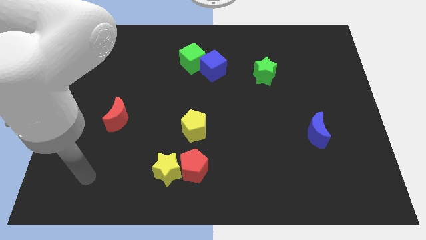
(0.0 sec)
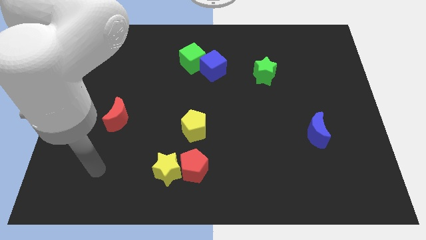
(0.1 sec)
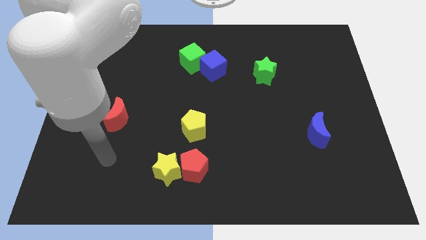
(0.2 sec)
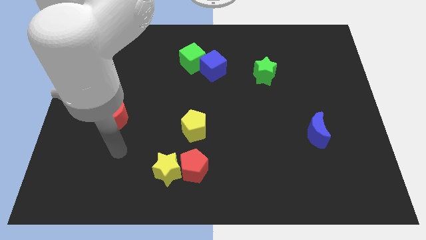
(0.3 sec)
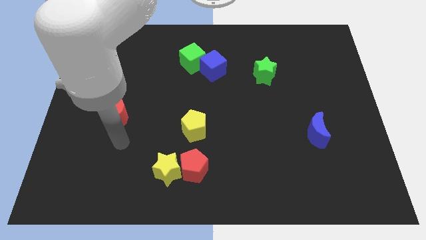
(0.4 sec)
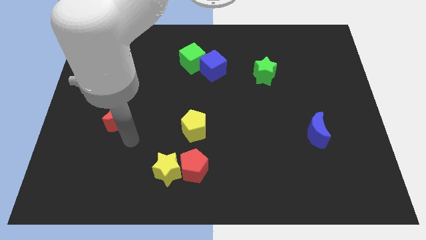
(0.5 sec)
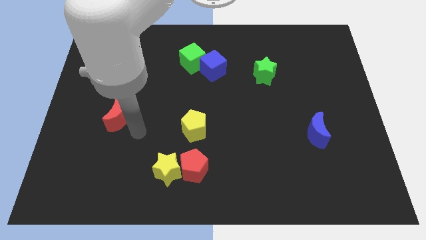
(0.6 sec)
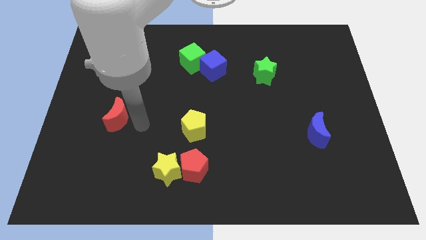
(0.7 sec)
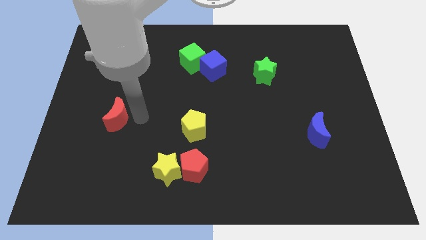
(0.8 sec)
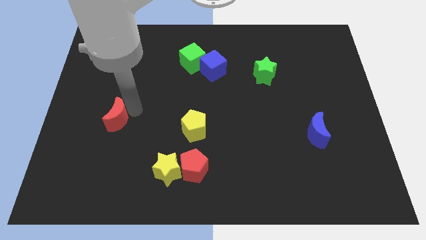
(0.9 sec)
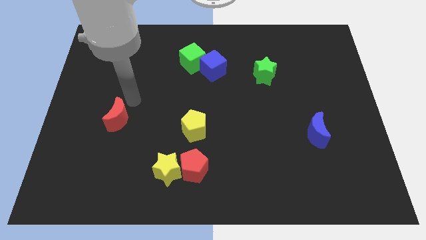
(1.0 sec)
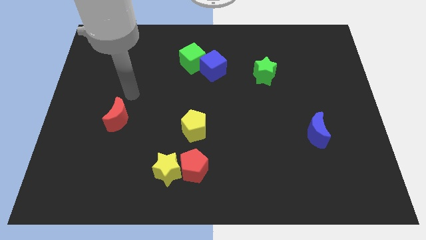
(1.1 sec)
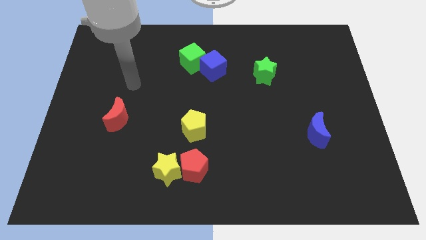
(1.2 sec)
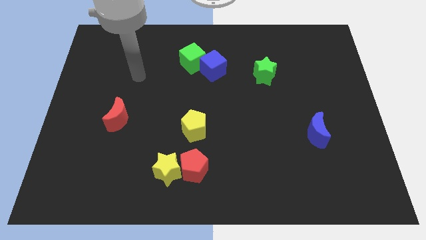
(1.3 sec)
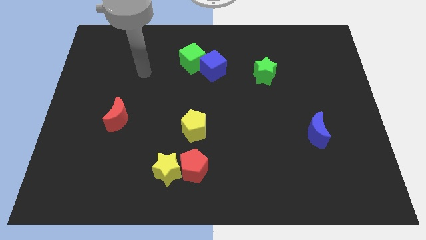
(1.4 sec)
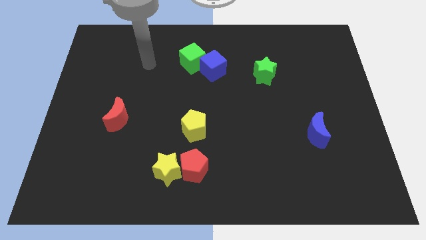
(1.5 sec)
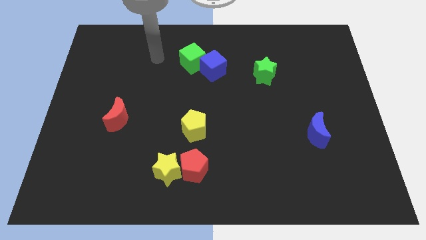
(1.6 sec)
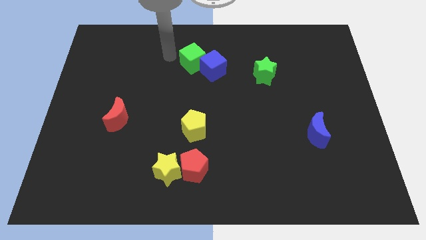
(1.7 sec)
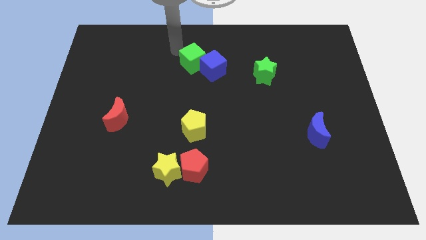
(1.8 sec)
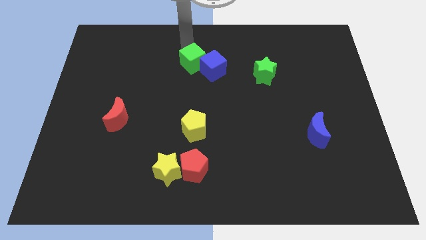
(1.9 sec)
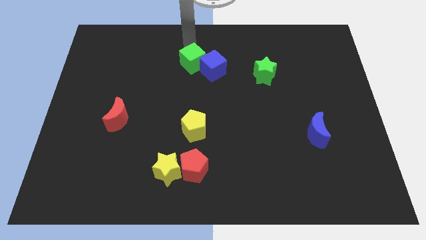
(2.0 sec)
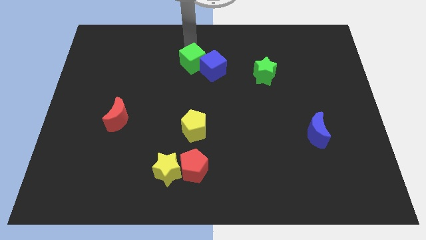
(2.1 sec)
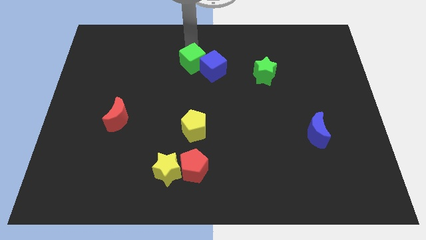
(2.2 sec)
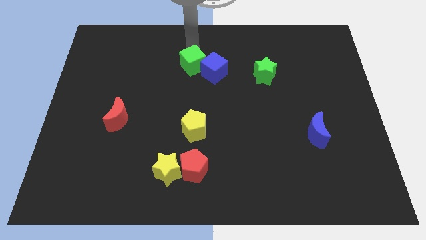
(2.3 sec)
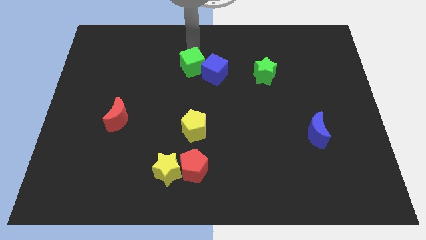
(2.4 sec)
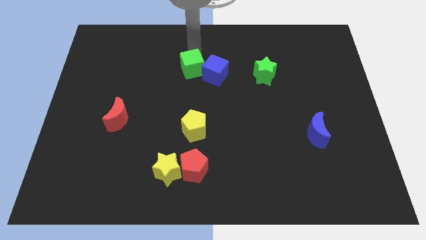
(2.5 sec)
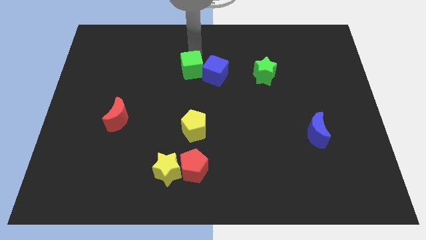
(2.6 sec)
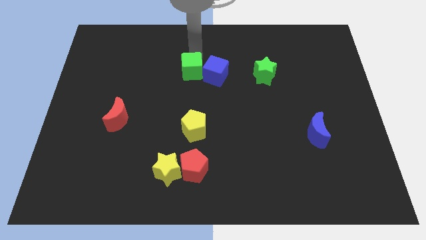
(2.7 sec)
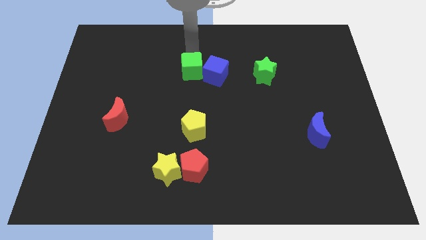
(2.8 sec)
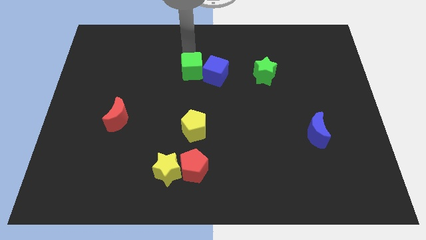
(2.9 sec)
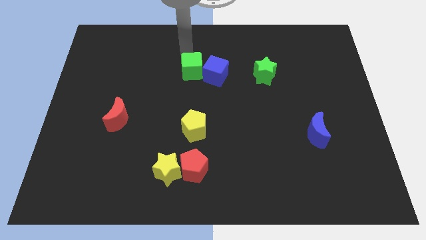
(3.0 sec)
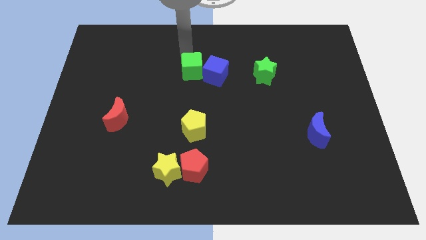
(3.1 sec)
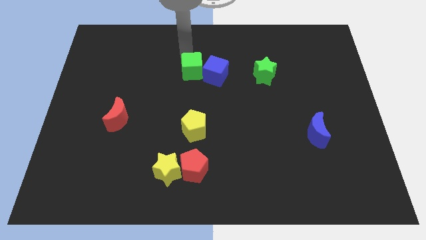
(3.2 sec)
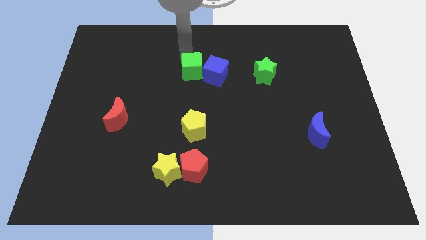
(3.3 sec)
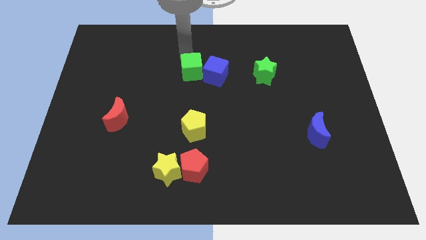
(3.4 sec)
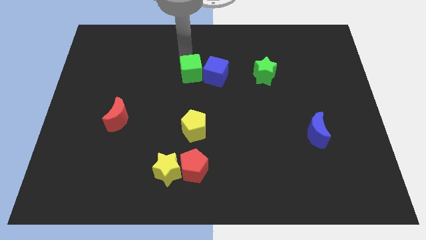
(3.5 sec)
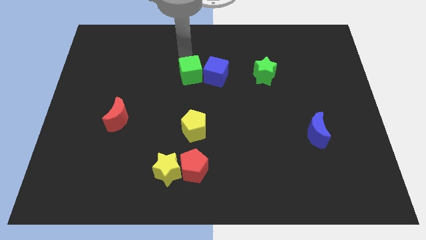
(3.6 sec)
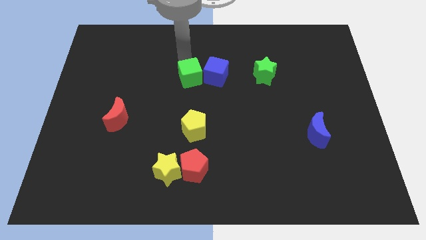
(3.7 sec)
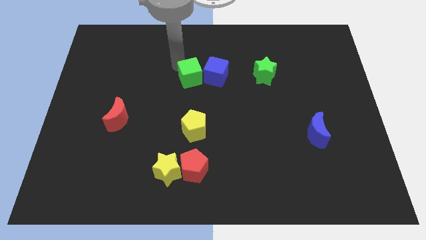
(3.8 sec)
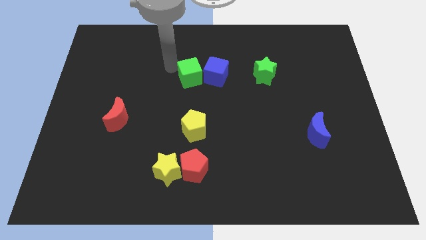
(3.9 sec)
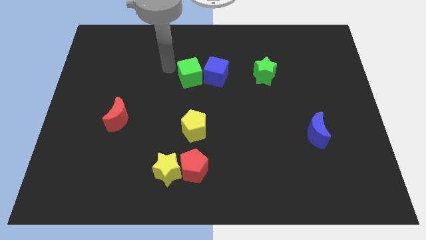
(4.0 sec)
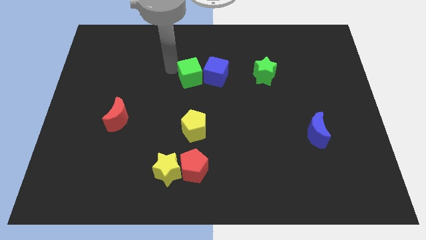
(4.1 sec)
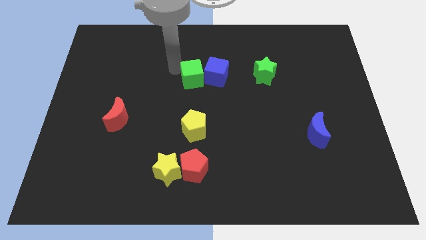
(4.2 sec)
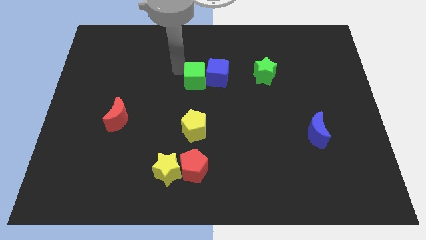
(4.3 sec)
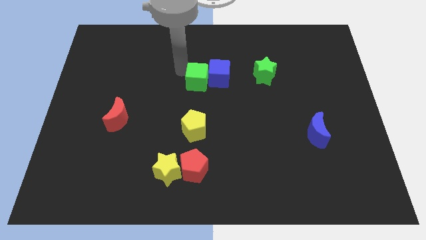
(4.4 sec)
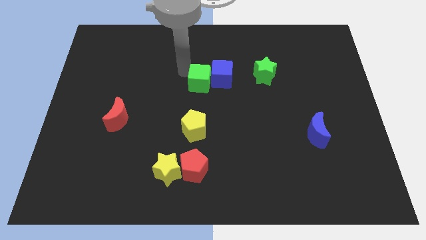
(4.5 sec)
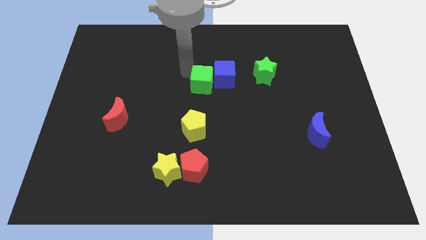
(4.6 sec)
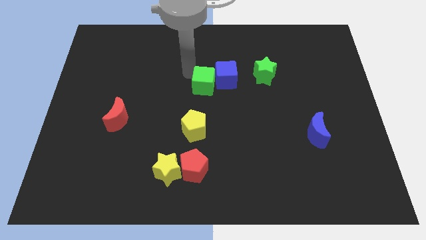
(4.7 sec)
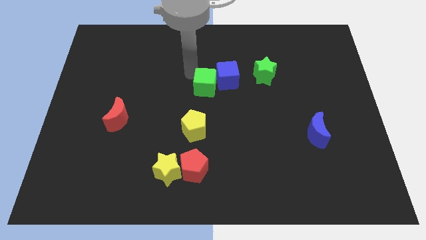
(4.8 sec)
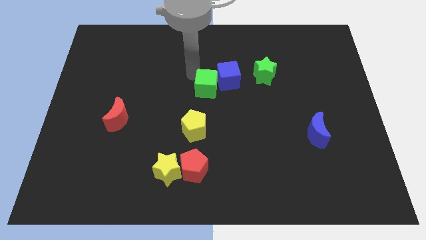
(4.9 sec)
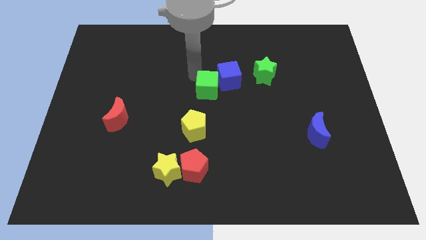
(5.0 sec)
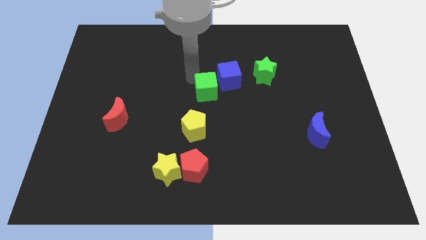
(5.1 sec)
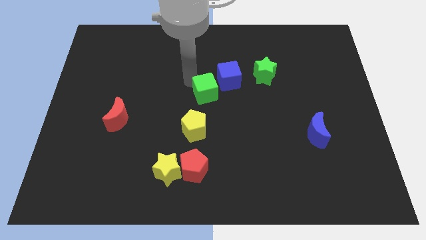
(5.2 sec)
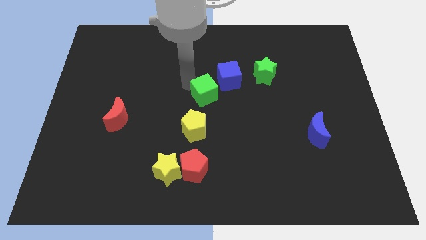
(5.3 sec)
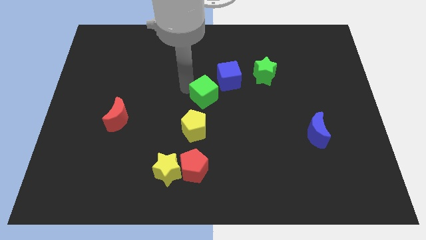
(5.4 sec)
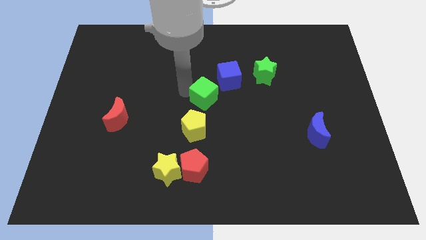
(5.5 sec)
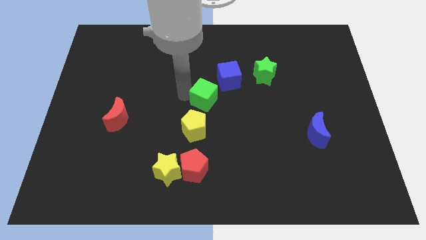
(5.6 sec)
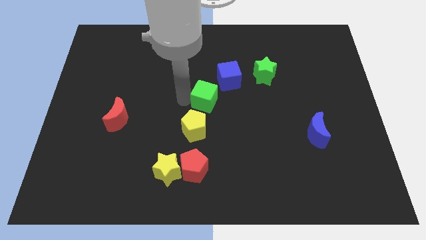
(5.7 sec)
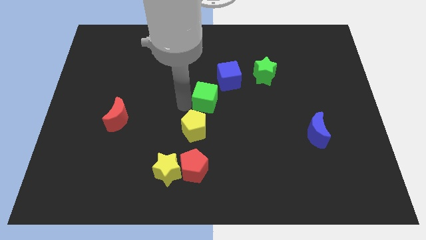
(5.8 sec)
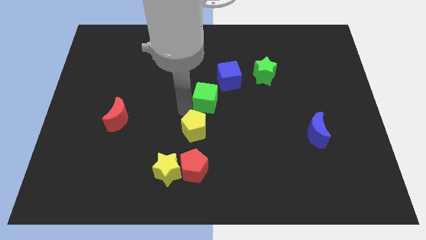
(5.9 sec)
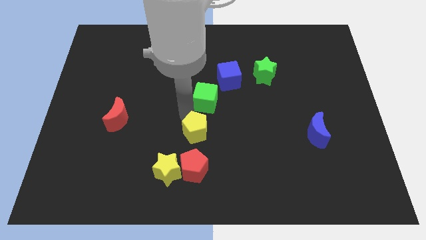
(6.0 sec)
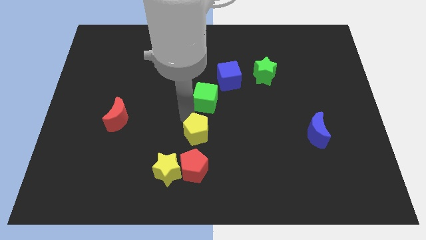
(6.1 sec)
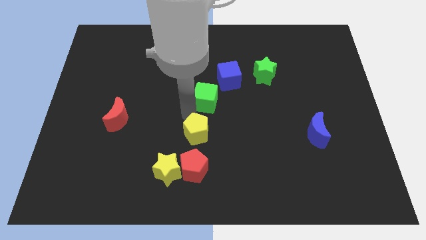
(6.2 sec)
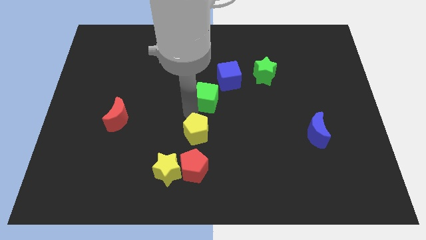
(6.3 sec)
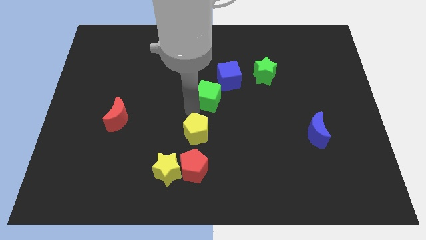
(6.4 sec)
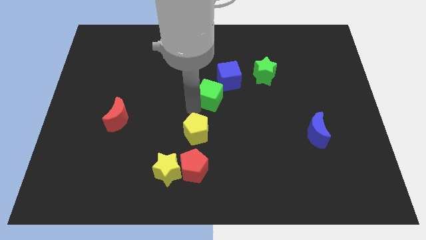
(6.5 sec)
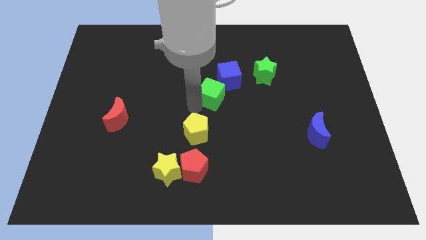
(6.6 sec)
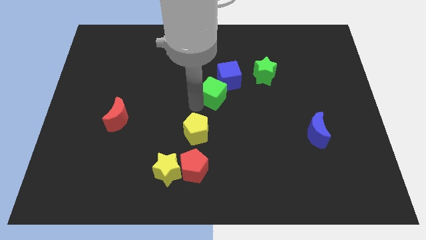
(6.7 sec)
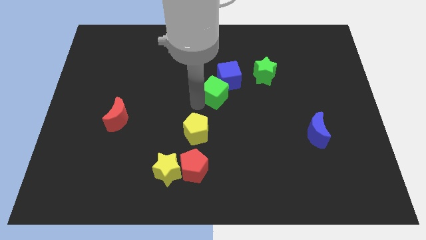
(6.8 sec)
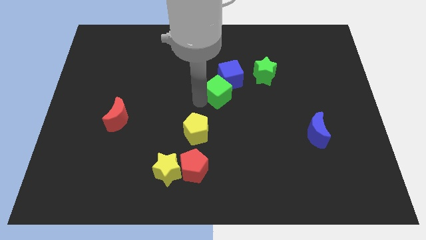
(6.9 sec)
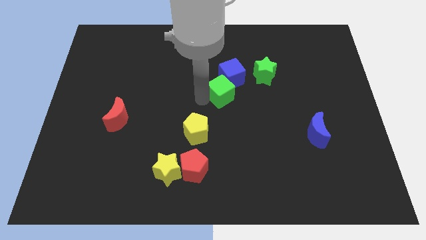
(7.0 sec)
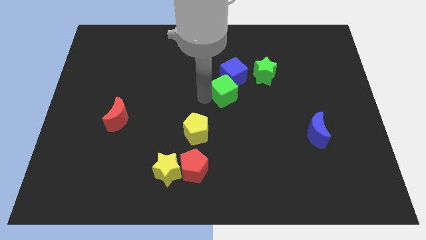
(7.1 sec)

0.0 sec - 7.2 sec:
slide the green cube to the bottom left side of the green star

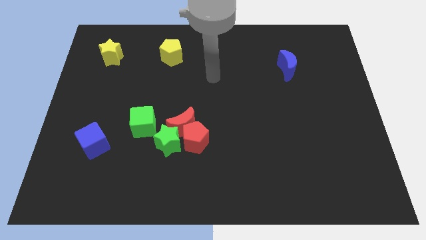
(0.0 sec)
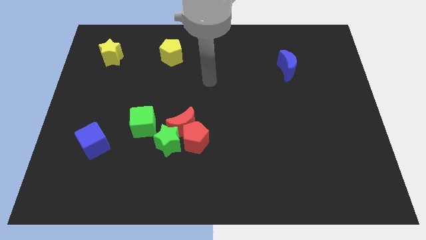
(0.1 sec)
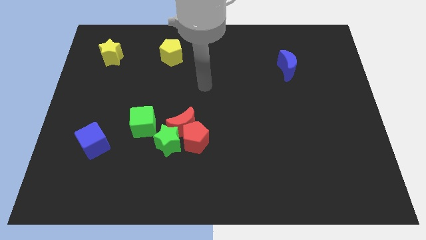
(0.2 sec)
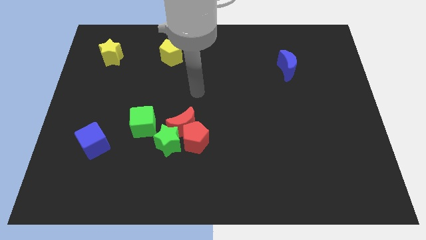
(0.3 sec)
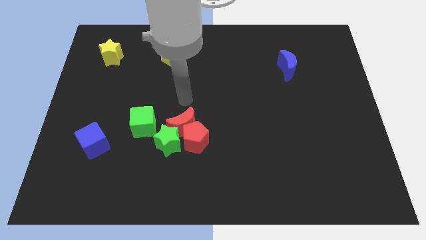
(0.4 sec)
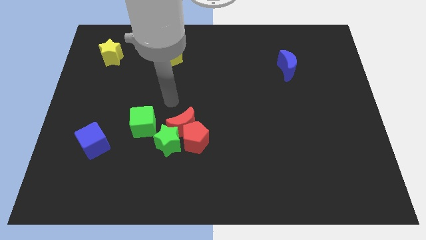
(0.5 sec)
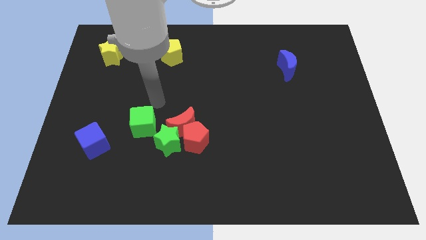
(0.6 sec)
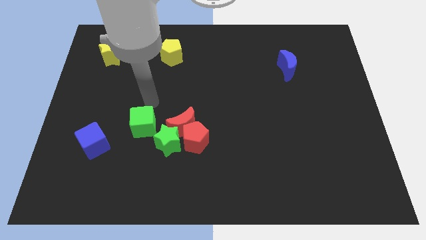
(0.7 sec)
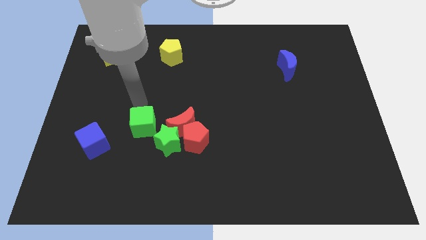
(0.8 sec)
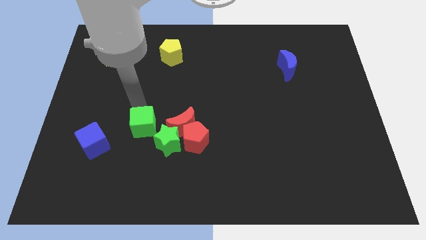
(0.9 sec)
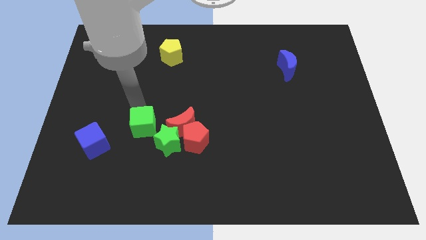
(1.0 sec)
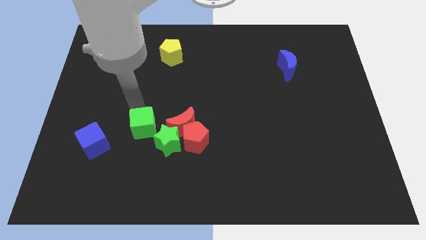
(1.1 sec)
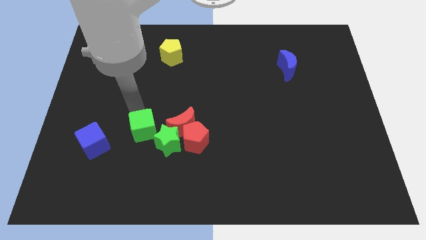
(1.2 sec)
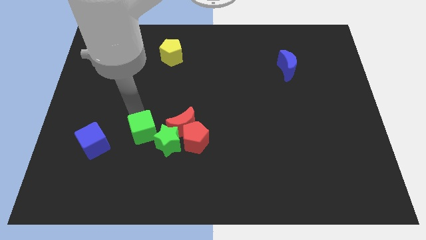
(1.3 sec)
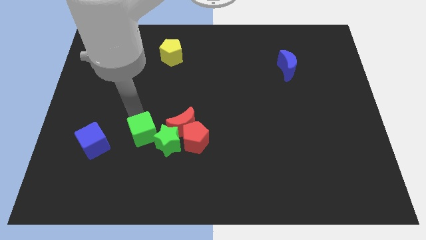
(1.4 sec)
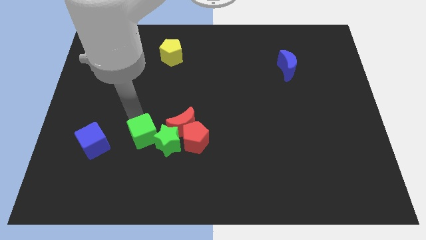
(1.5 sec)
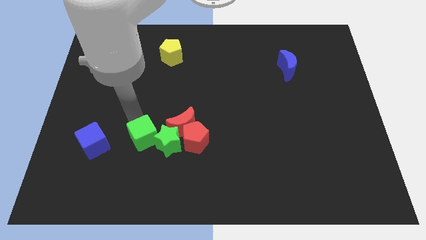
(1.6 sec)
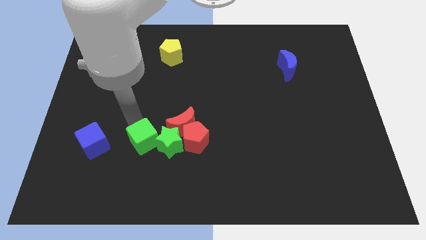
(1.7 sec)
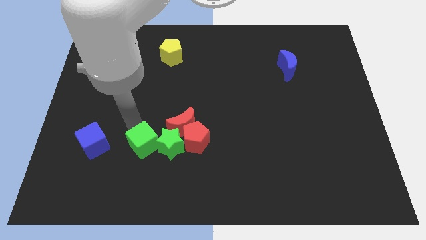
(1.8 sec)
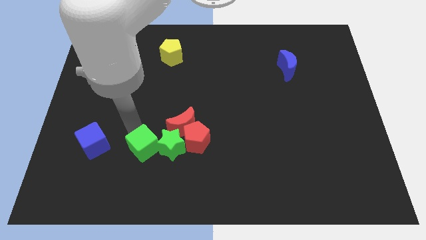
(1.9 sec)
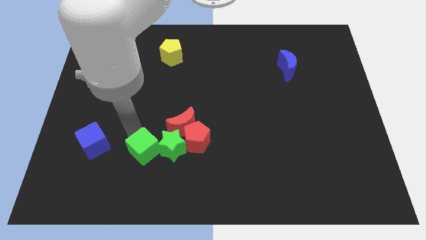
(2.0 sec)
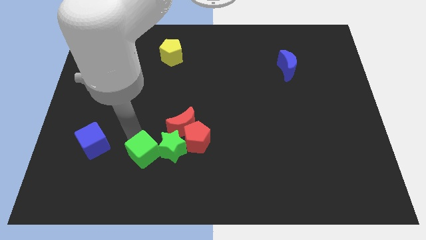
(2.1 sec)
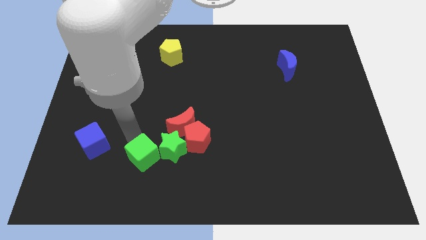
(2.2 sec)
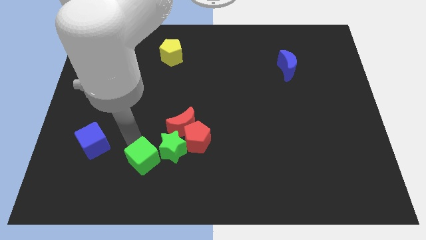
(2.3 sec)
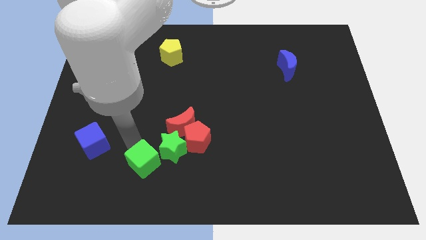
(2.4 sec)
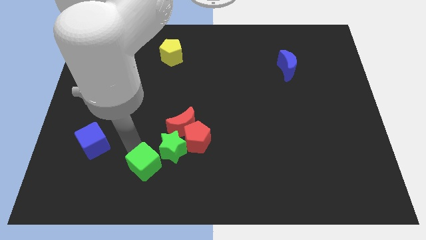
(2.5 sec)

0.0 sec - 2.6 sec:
push the green cube to the bottom left side of the red pentagon
